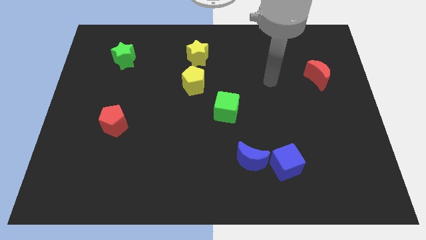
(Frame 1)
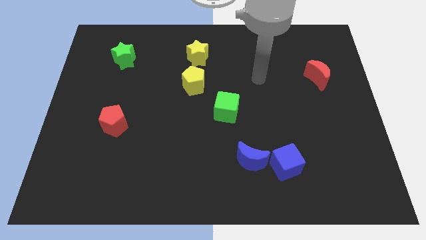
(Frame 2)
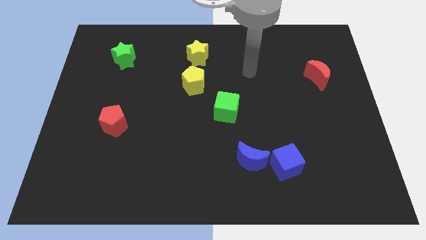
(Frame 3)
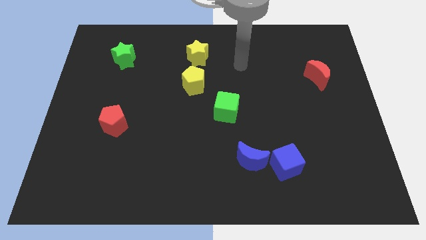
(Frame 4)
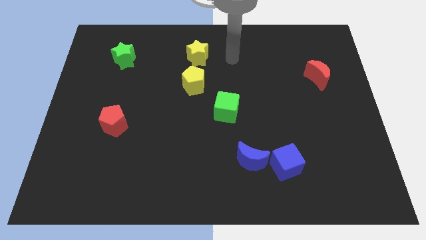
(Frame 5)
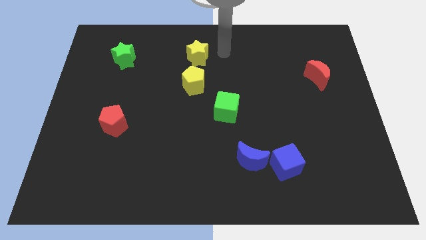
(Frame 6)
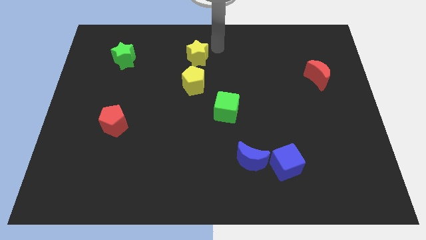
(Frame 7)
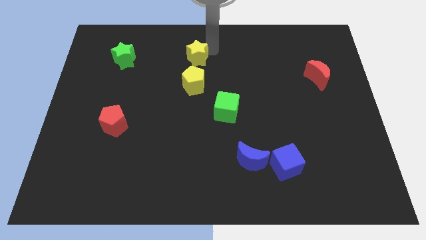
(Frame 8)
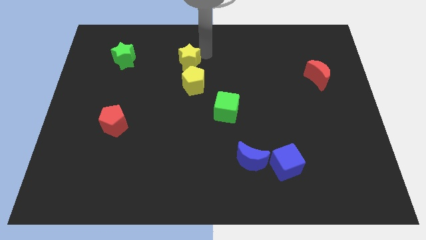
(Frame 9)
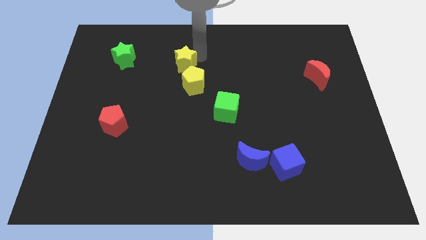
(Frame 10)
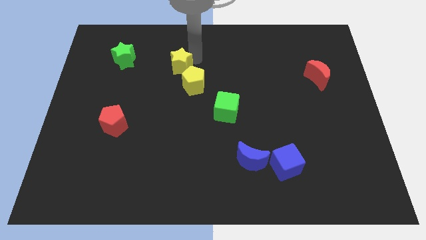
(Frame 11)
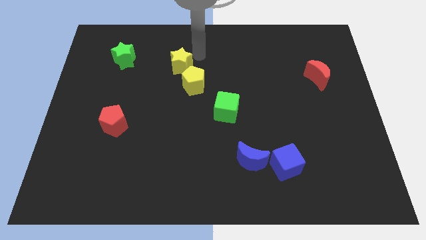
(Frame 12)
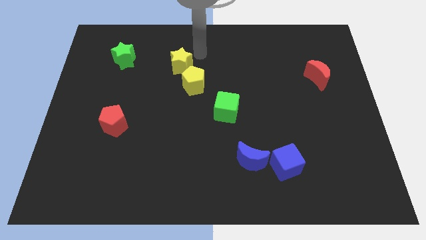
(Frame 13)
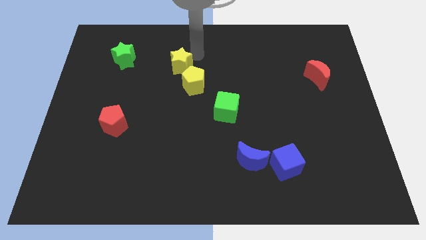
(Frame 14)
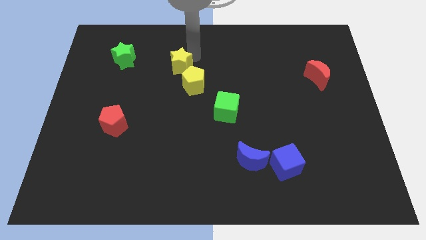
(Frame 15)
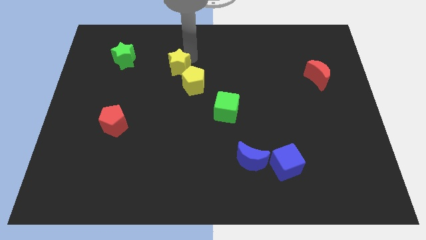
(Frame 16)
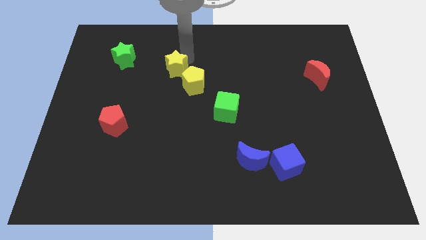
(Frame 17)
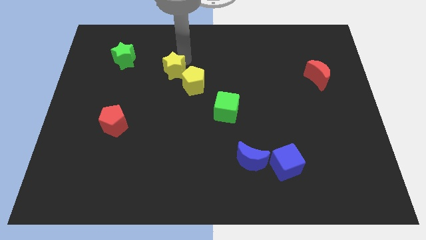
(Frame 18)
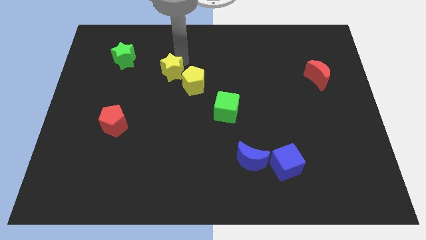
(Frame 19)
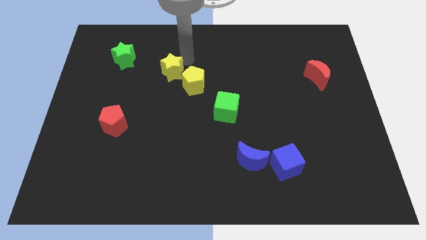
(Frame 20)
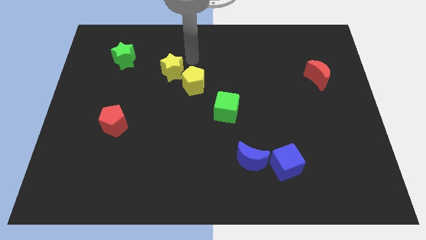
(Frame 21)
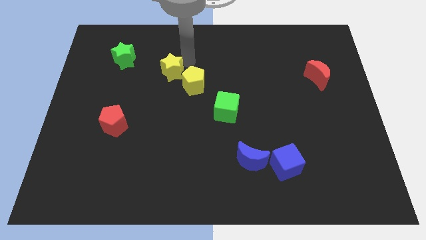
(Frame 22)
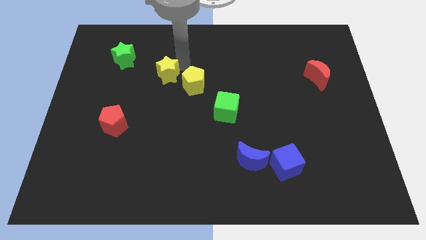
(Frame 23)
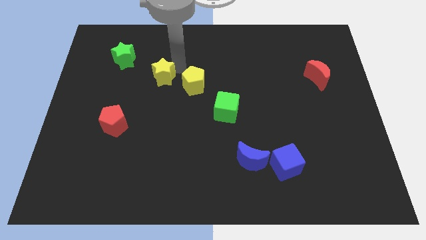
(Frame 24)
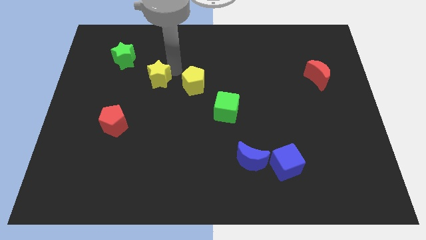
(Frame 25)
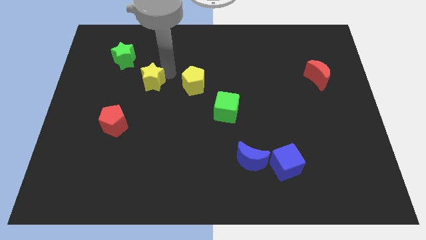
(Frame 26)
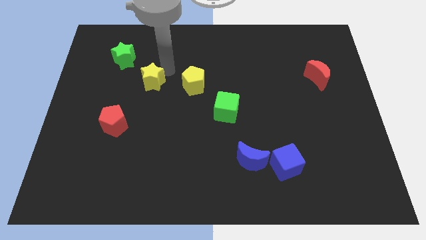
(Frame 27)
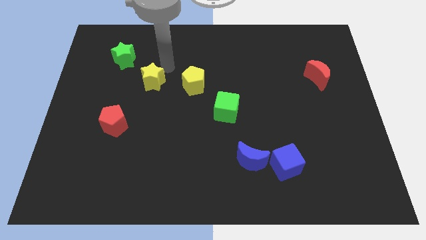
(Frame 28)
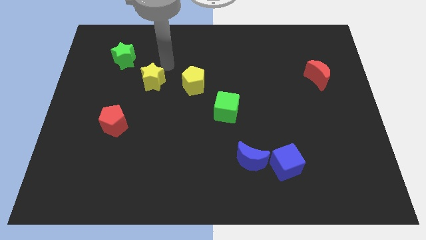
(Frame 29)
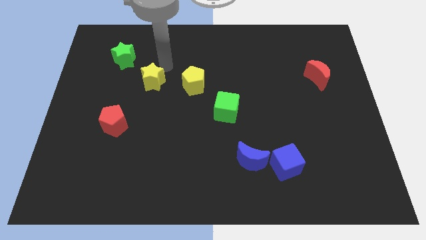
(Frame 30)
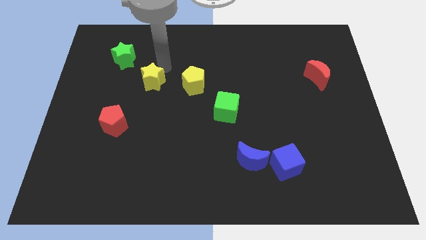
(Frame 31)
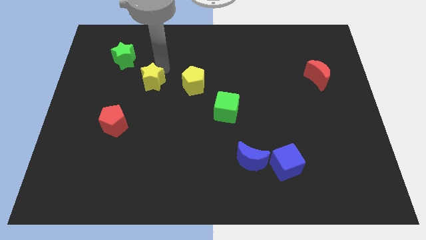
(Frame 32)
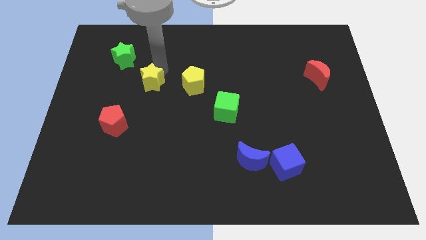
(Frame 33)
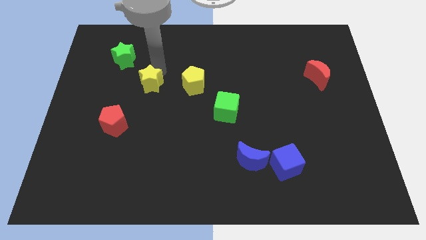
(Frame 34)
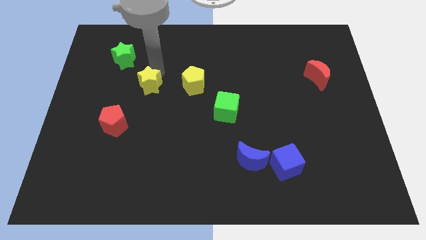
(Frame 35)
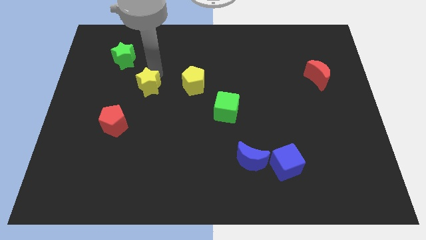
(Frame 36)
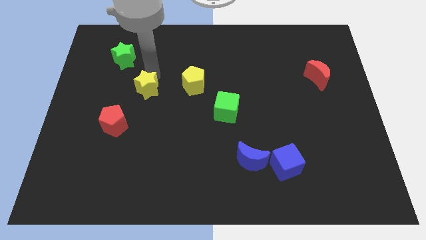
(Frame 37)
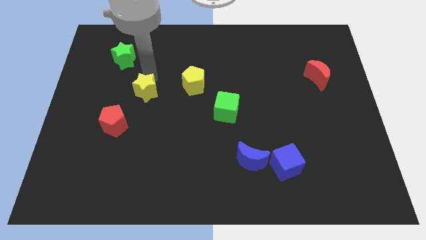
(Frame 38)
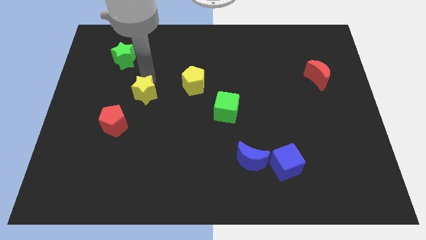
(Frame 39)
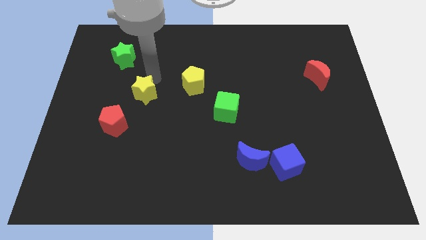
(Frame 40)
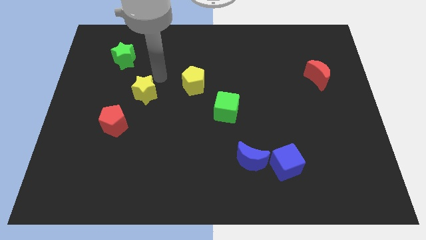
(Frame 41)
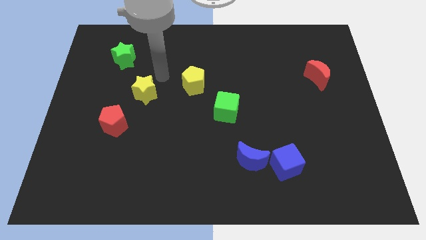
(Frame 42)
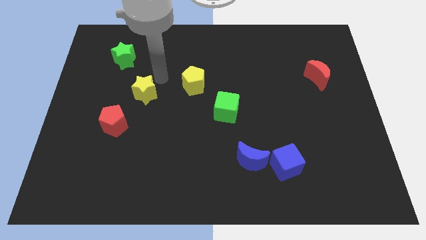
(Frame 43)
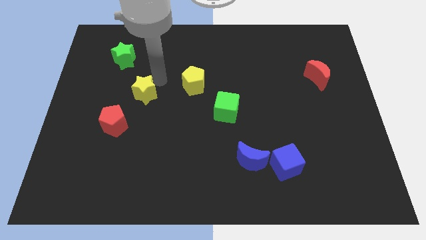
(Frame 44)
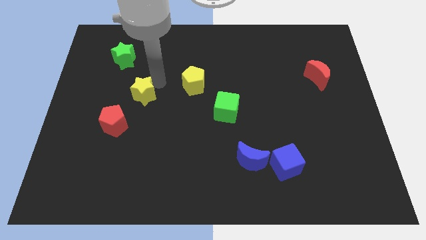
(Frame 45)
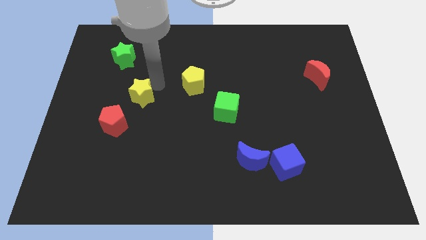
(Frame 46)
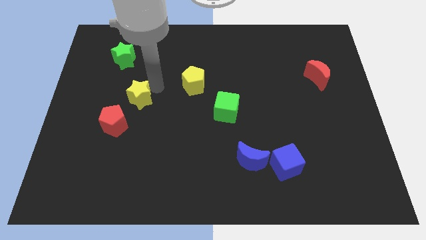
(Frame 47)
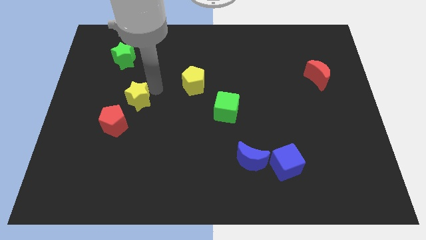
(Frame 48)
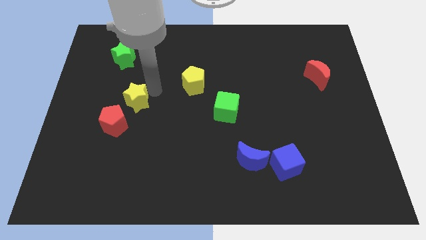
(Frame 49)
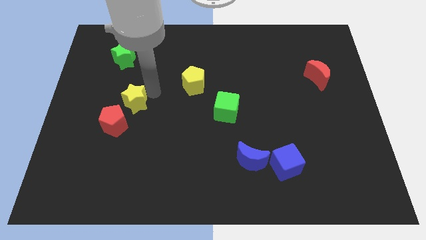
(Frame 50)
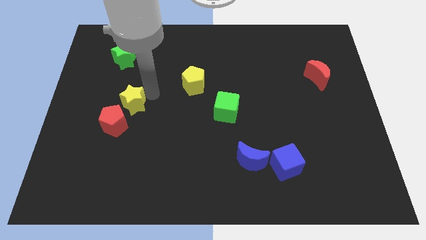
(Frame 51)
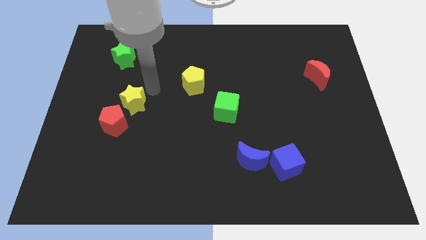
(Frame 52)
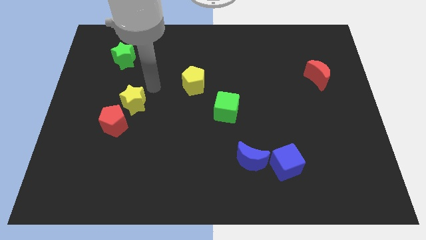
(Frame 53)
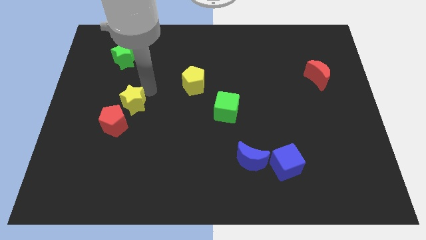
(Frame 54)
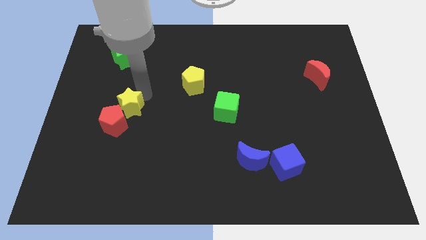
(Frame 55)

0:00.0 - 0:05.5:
push the yellow star close to the red pentagon

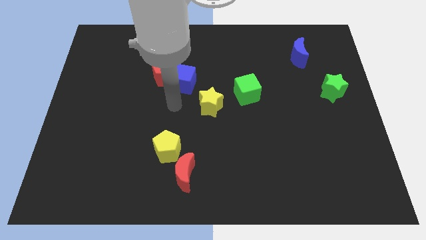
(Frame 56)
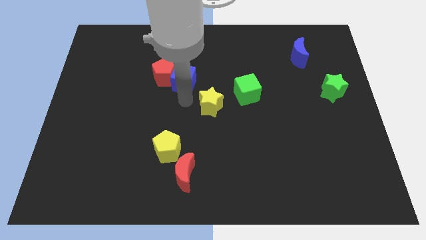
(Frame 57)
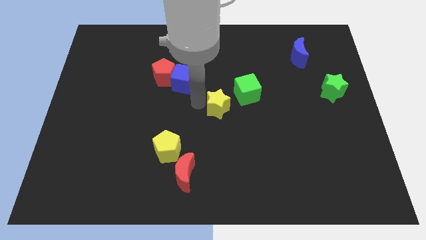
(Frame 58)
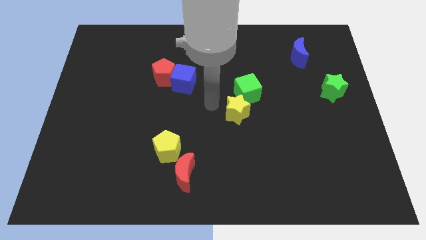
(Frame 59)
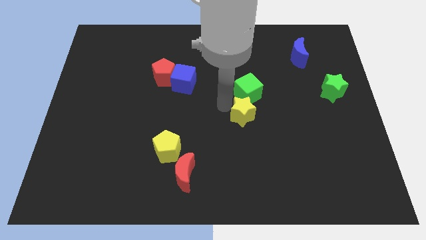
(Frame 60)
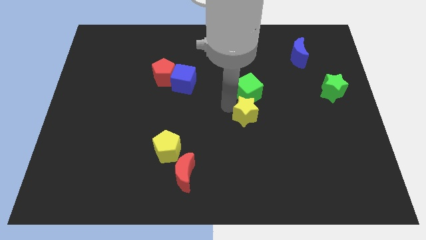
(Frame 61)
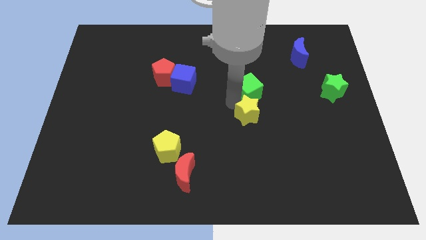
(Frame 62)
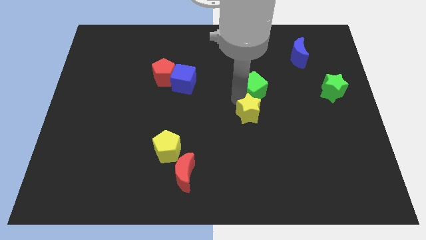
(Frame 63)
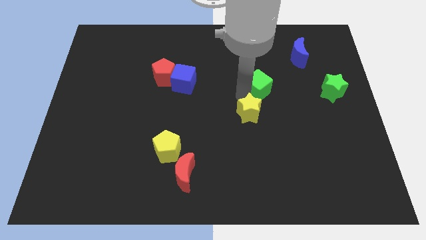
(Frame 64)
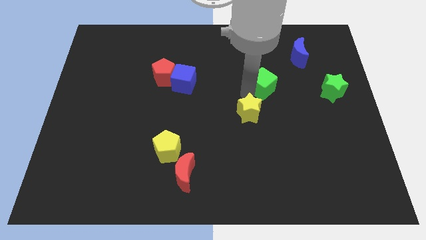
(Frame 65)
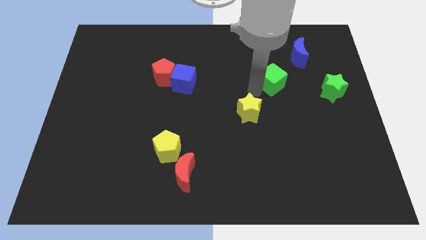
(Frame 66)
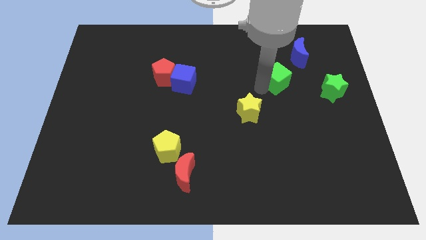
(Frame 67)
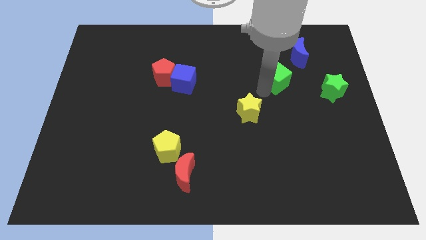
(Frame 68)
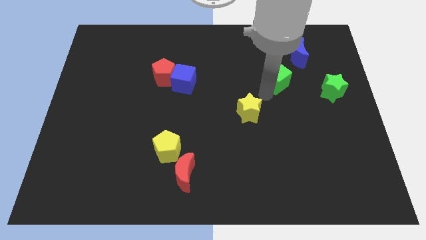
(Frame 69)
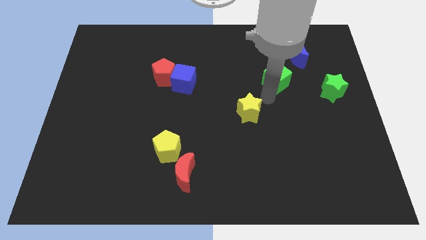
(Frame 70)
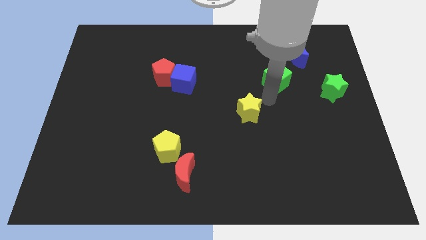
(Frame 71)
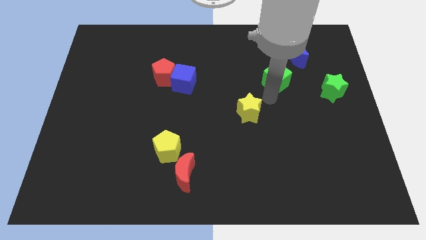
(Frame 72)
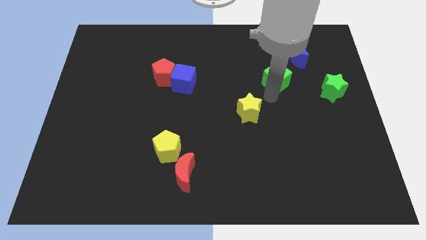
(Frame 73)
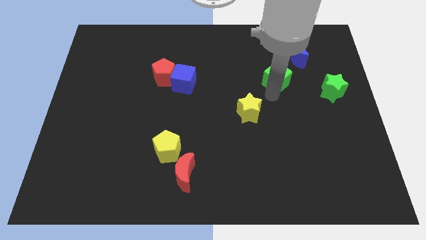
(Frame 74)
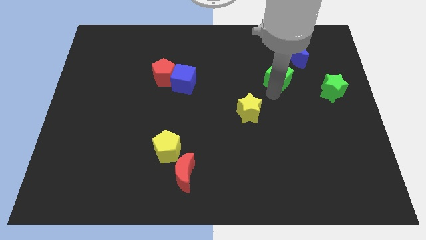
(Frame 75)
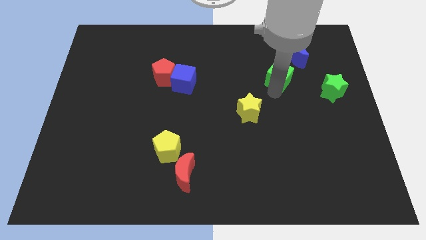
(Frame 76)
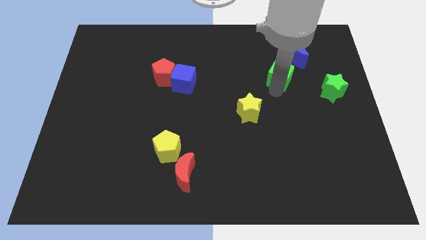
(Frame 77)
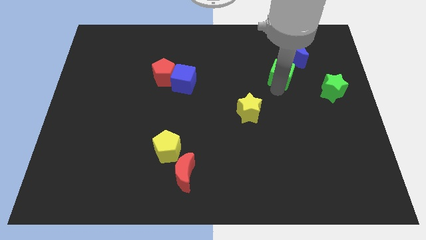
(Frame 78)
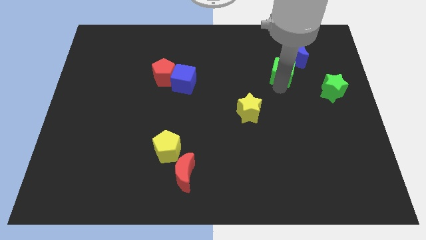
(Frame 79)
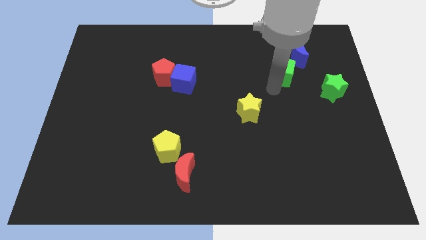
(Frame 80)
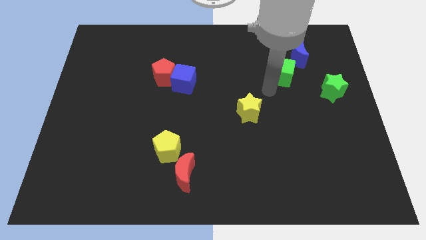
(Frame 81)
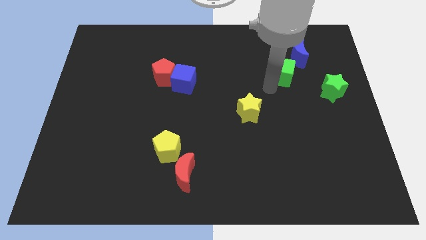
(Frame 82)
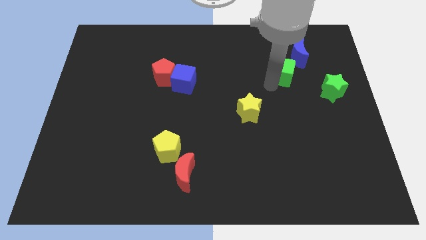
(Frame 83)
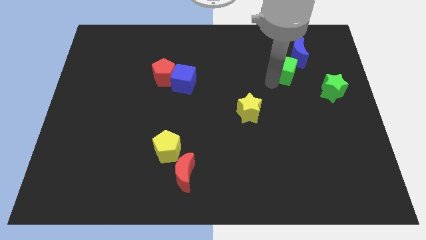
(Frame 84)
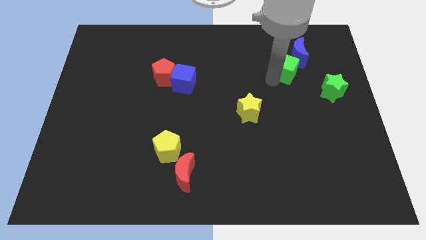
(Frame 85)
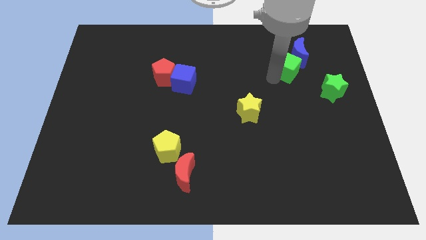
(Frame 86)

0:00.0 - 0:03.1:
slide the green cube towards the blue moon
